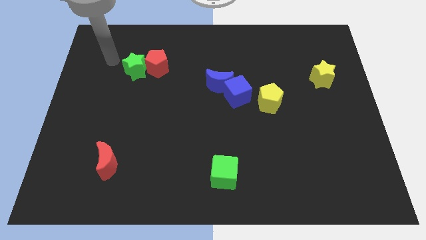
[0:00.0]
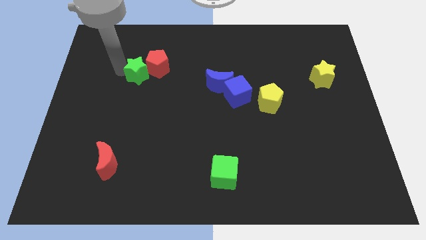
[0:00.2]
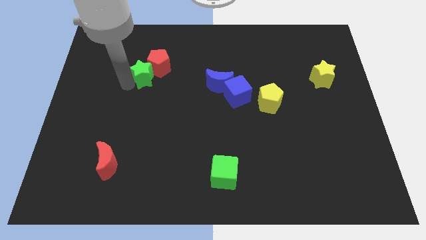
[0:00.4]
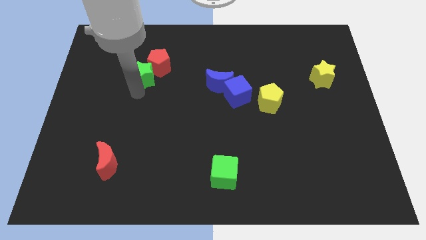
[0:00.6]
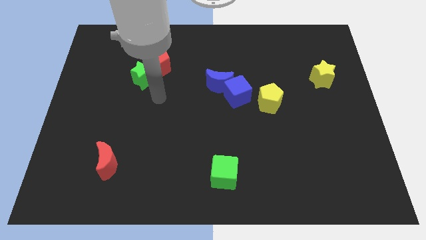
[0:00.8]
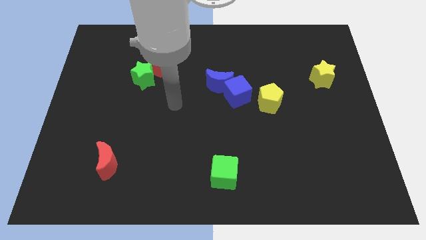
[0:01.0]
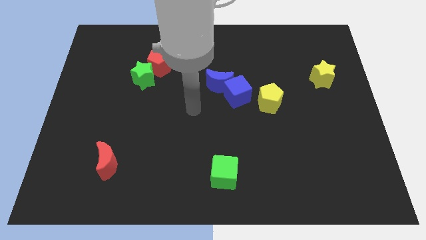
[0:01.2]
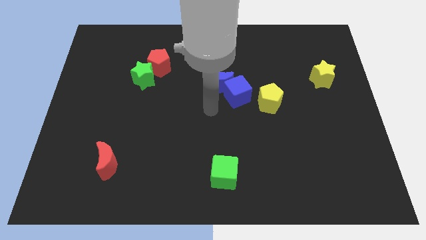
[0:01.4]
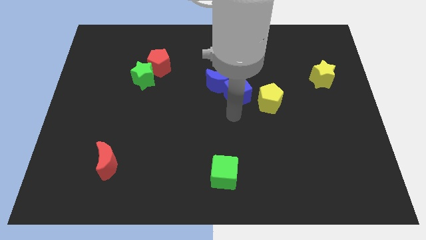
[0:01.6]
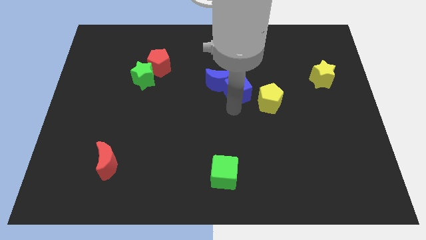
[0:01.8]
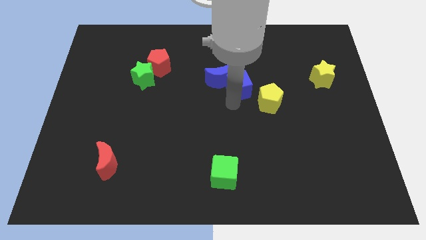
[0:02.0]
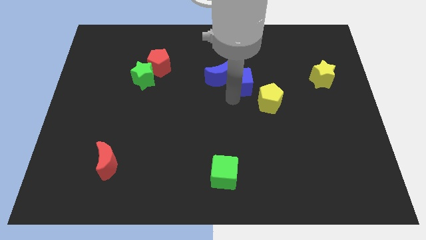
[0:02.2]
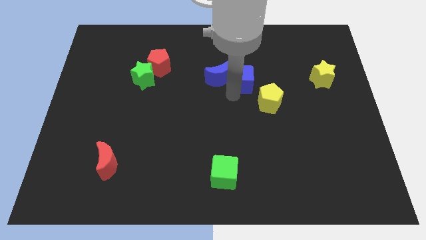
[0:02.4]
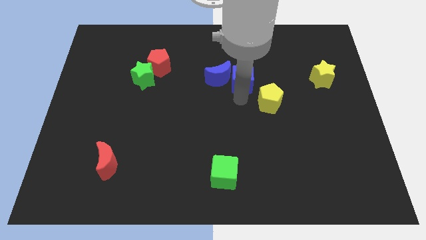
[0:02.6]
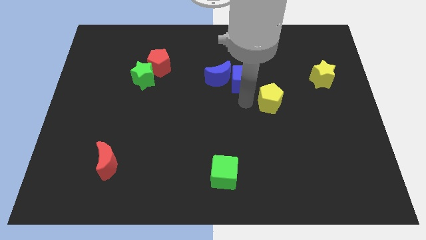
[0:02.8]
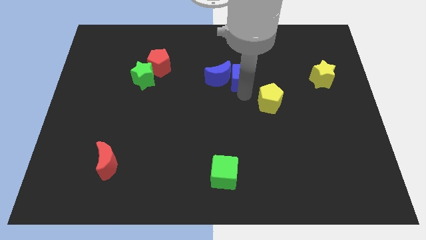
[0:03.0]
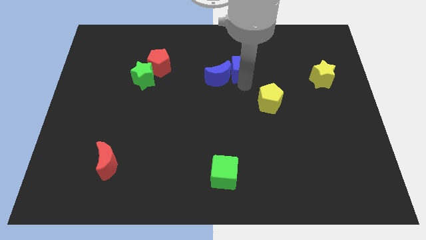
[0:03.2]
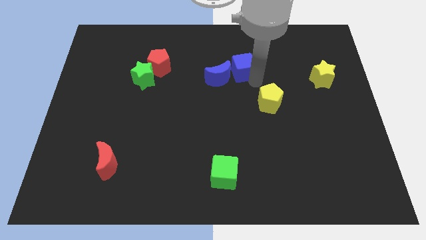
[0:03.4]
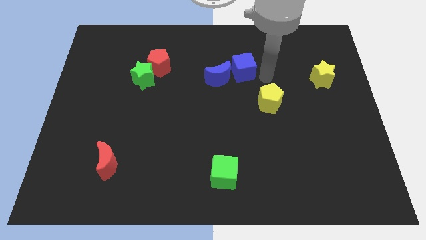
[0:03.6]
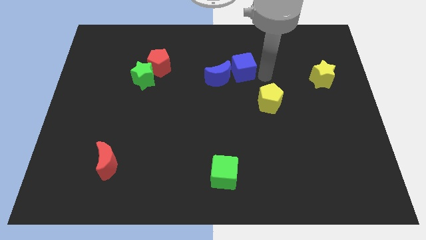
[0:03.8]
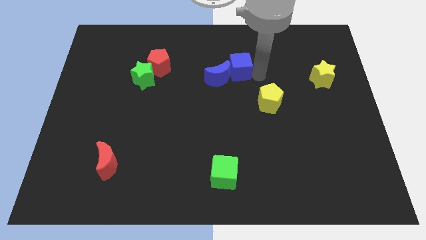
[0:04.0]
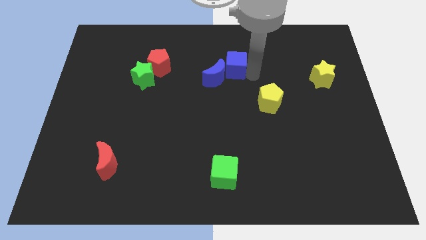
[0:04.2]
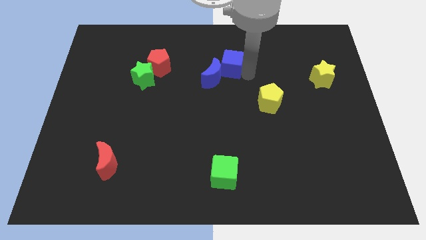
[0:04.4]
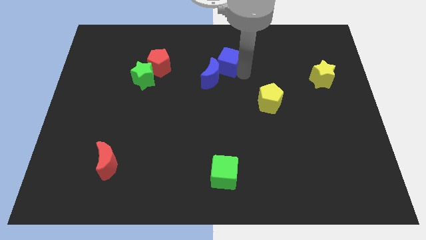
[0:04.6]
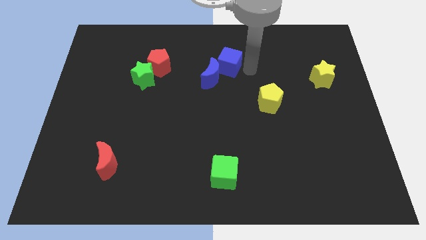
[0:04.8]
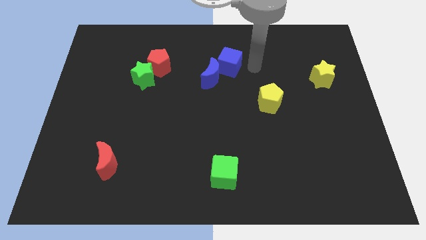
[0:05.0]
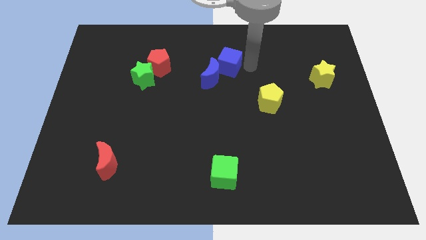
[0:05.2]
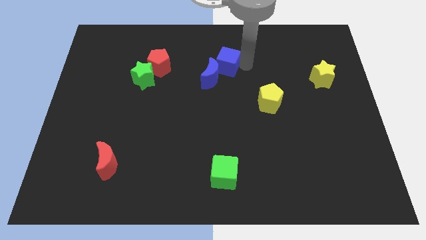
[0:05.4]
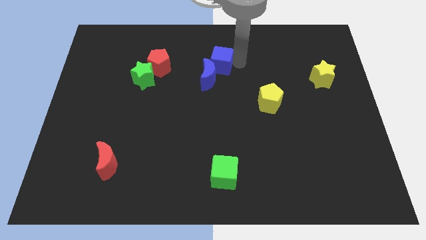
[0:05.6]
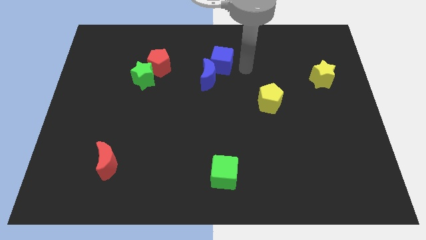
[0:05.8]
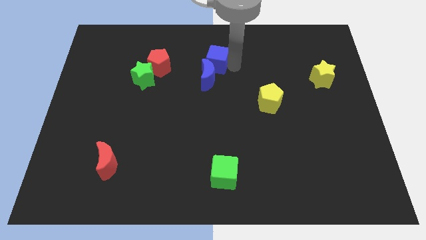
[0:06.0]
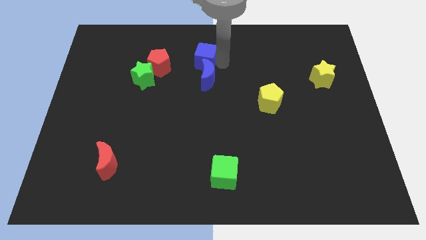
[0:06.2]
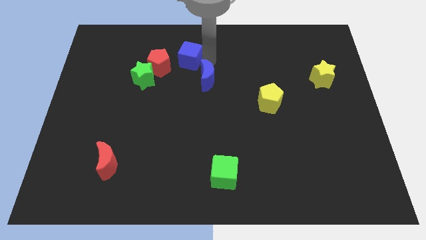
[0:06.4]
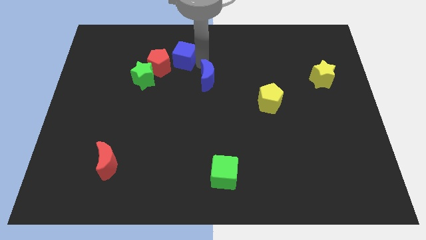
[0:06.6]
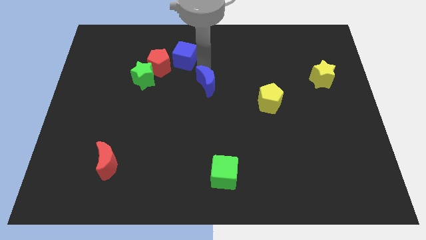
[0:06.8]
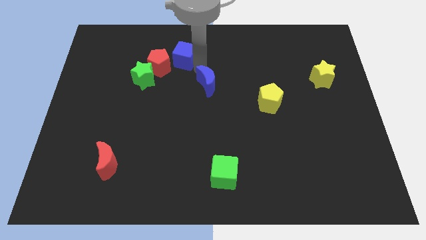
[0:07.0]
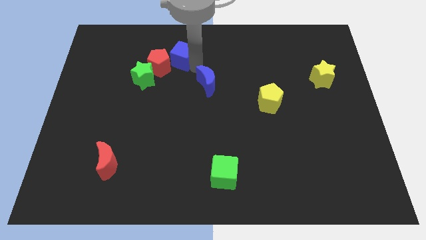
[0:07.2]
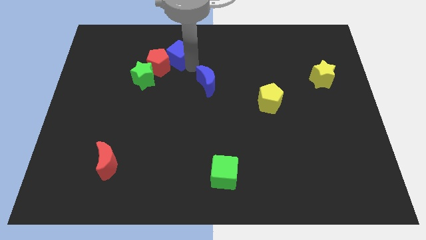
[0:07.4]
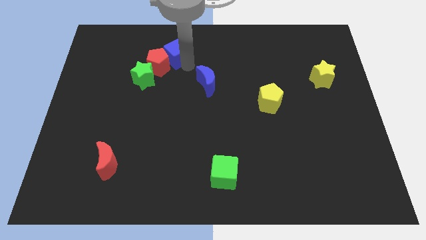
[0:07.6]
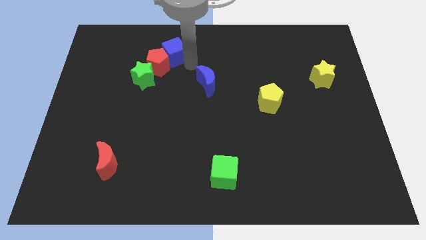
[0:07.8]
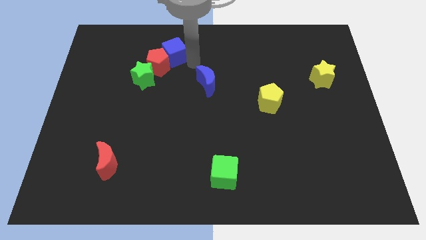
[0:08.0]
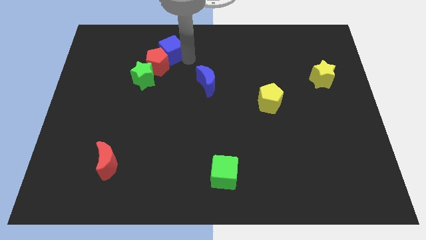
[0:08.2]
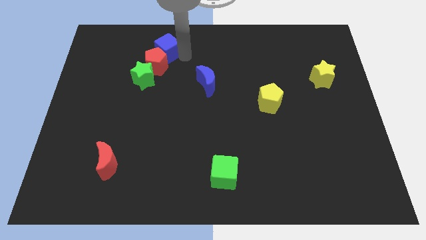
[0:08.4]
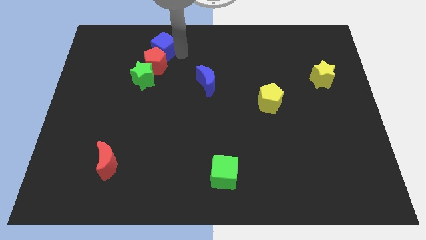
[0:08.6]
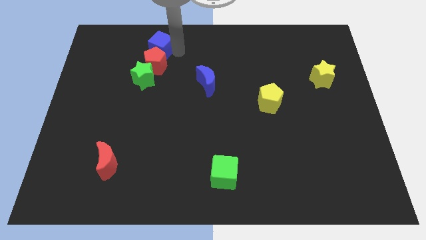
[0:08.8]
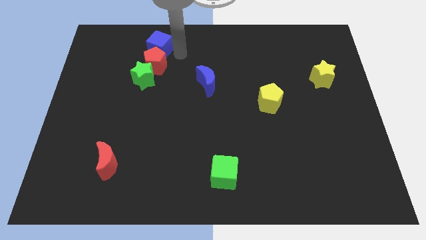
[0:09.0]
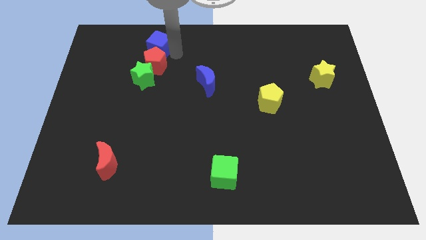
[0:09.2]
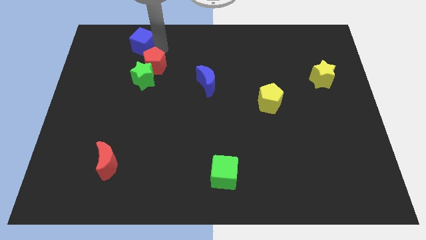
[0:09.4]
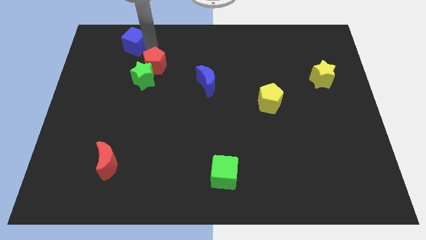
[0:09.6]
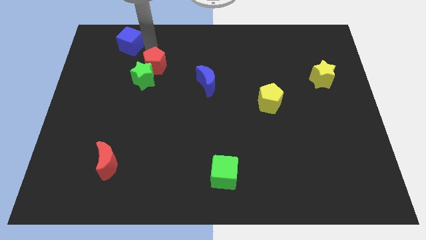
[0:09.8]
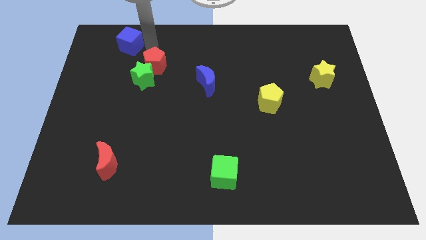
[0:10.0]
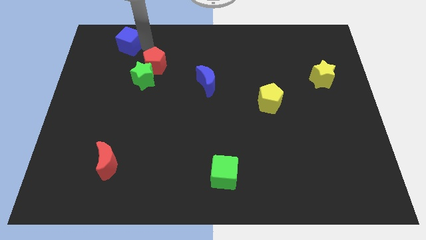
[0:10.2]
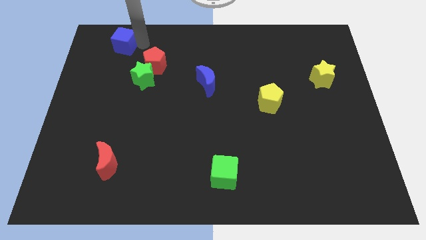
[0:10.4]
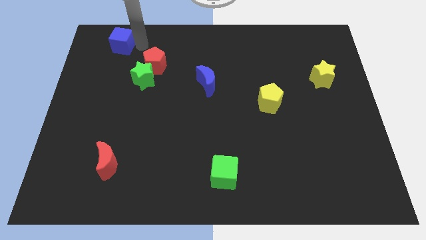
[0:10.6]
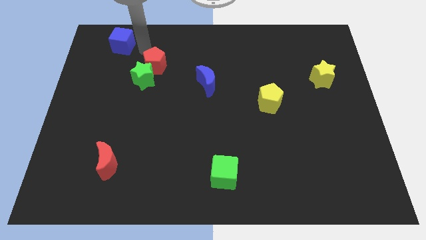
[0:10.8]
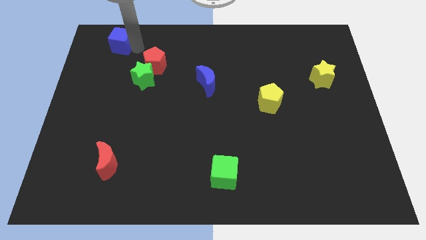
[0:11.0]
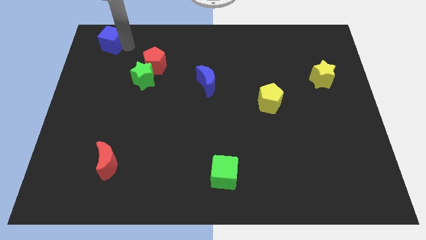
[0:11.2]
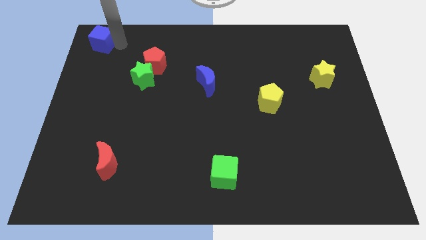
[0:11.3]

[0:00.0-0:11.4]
push the blue cube to the upper left corner

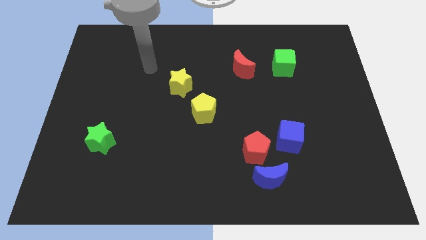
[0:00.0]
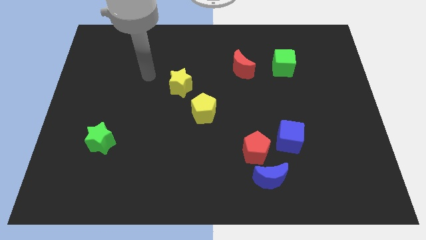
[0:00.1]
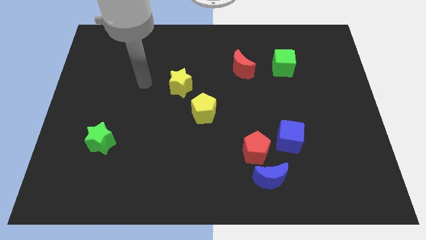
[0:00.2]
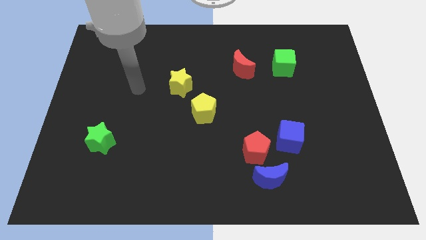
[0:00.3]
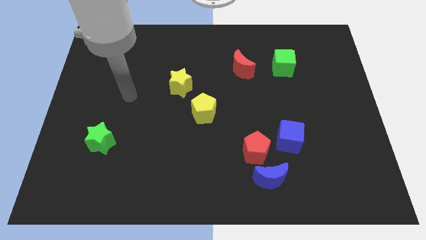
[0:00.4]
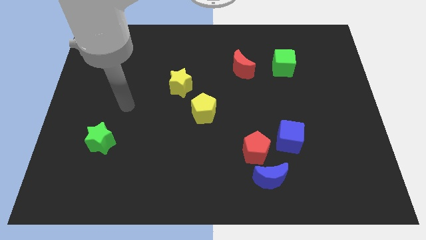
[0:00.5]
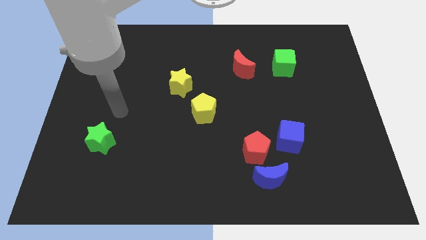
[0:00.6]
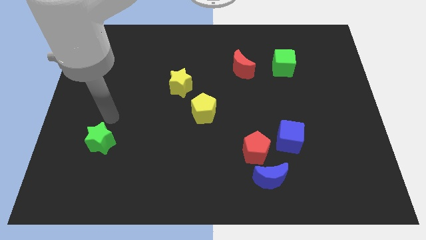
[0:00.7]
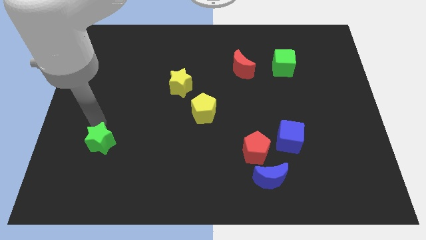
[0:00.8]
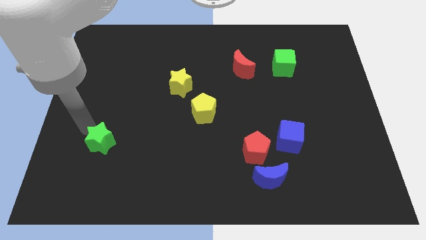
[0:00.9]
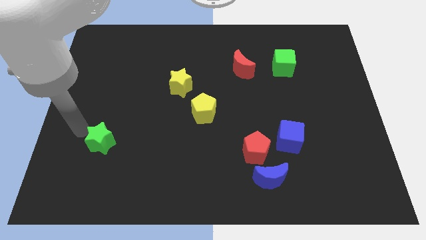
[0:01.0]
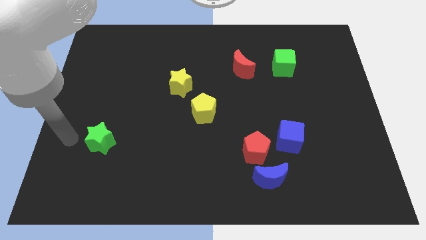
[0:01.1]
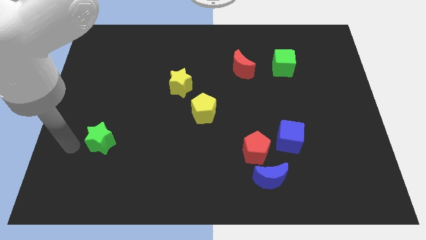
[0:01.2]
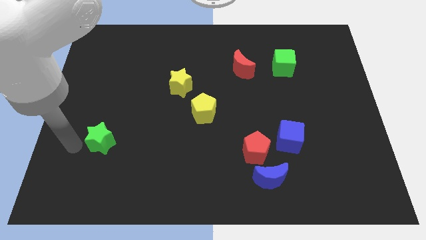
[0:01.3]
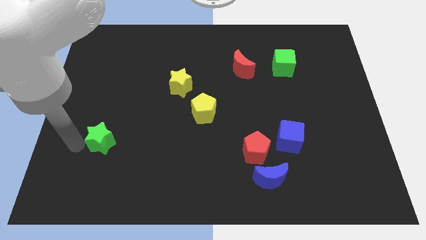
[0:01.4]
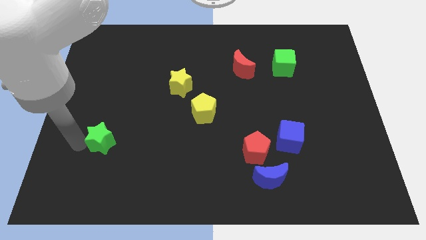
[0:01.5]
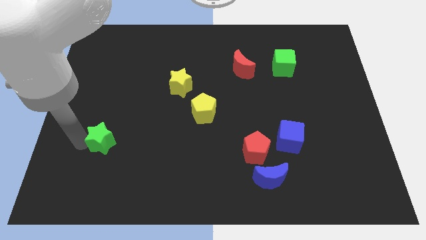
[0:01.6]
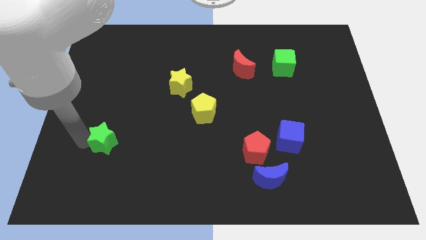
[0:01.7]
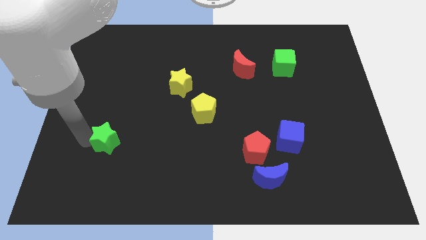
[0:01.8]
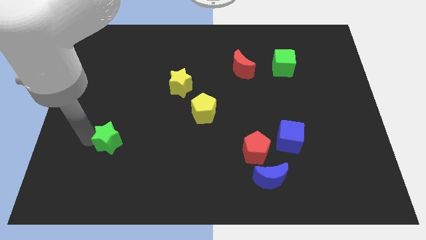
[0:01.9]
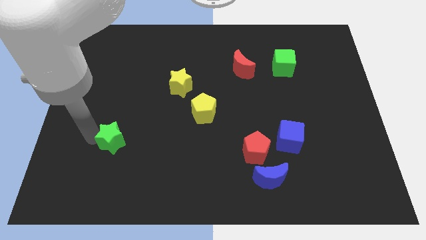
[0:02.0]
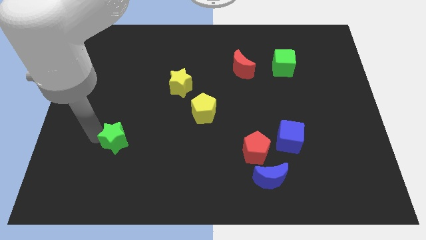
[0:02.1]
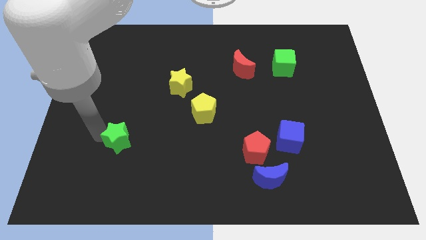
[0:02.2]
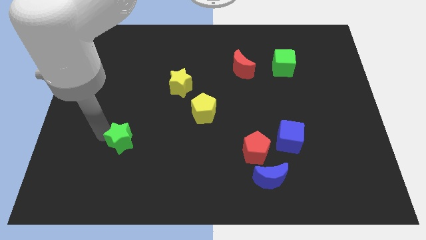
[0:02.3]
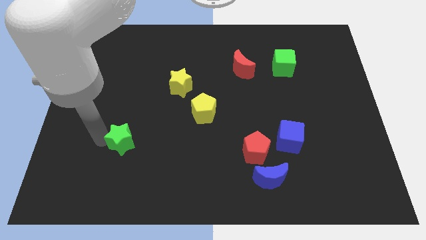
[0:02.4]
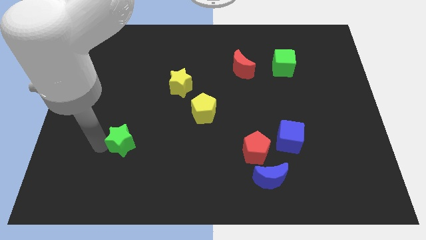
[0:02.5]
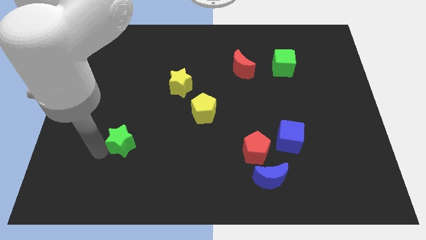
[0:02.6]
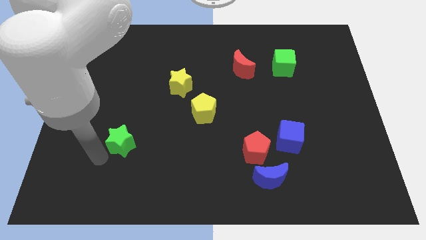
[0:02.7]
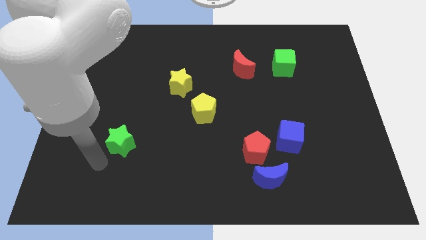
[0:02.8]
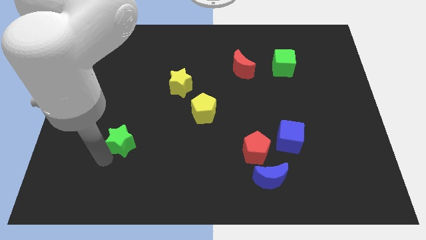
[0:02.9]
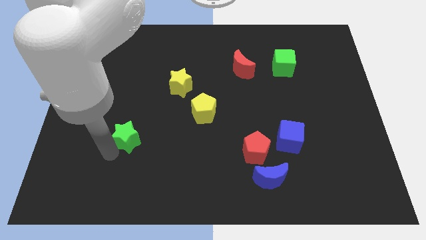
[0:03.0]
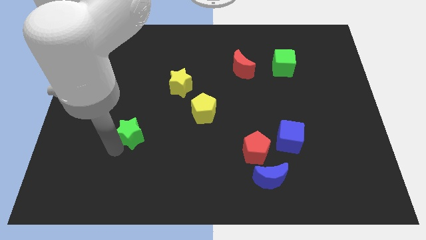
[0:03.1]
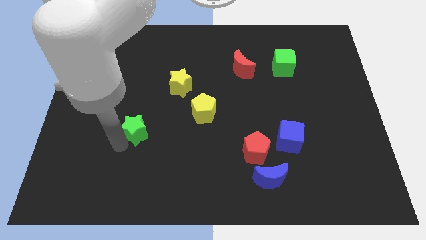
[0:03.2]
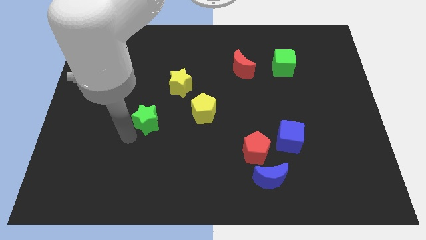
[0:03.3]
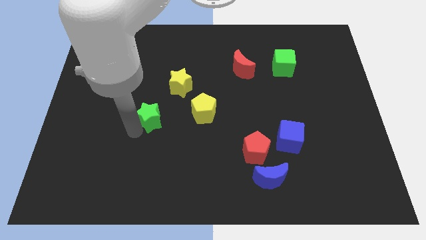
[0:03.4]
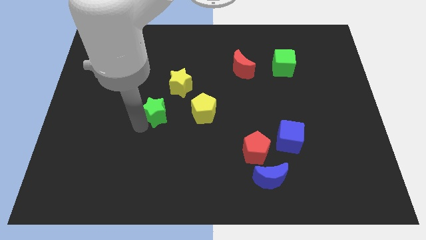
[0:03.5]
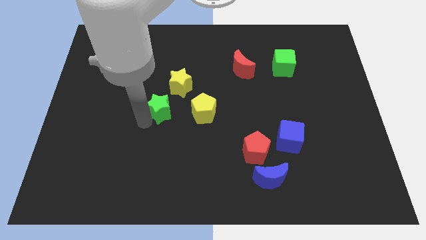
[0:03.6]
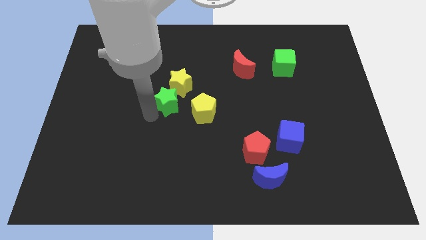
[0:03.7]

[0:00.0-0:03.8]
push the green star to the center
